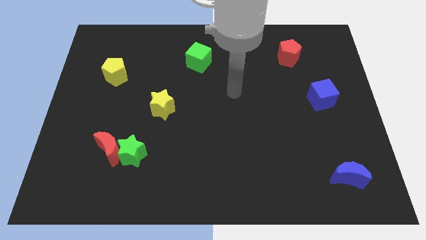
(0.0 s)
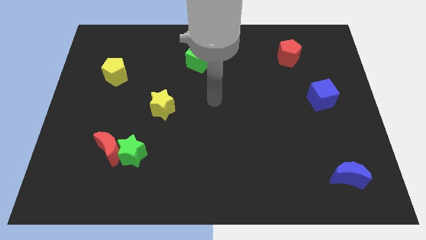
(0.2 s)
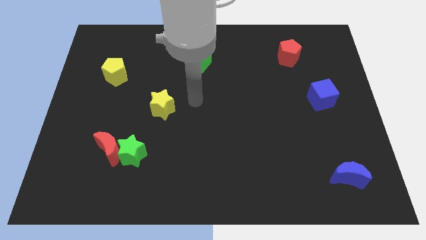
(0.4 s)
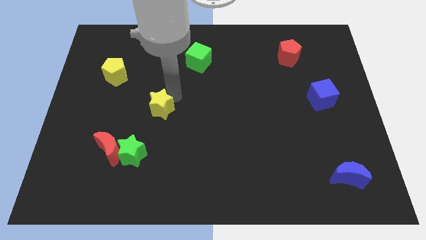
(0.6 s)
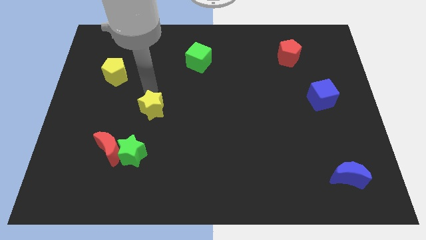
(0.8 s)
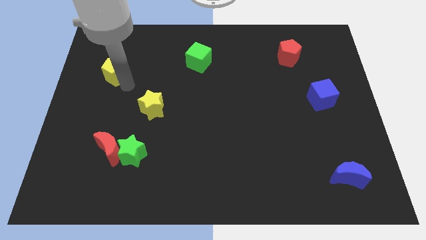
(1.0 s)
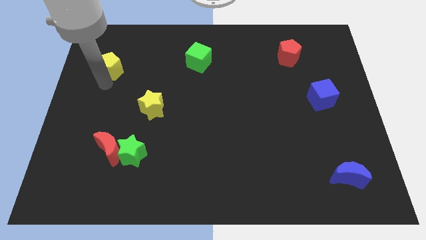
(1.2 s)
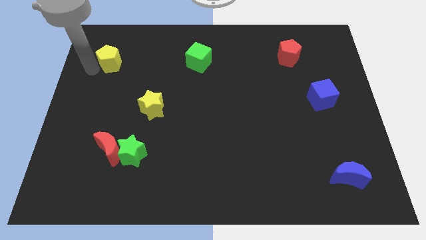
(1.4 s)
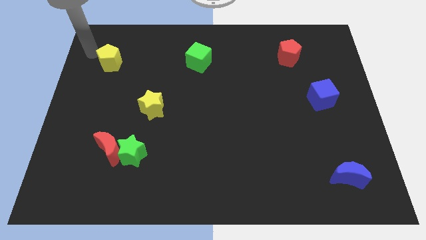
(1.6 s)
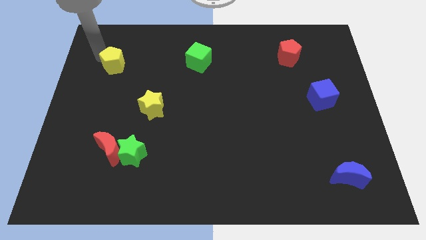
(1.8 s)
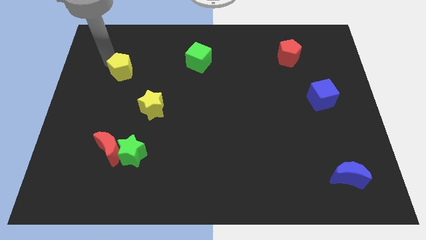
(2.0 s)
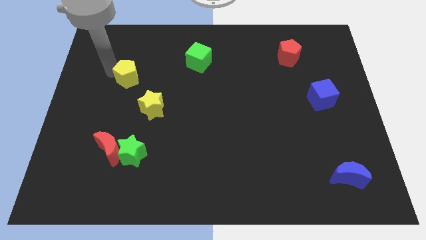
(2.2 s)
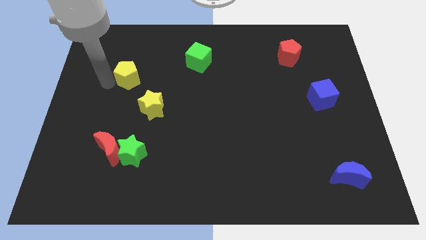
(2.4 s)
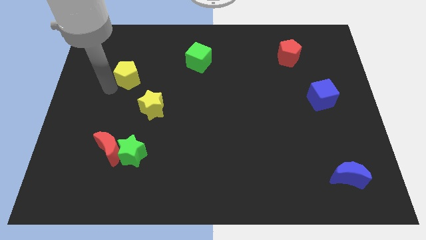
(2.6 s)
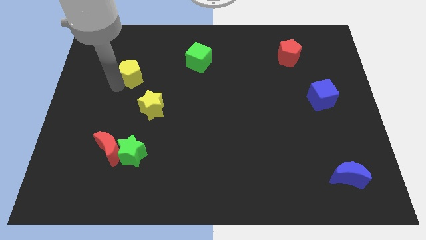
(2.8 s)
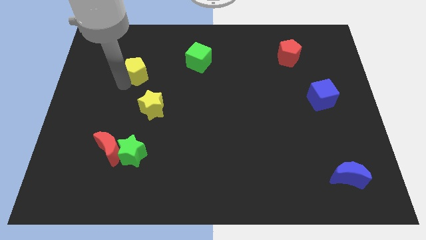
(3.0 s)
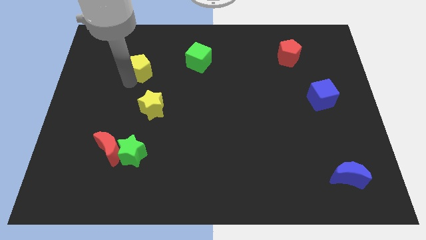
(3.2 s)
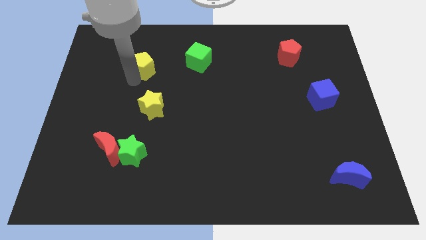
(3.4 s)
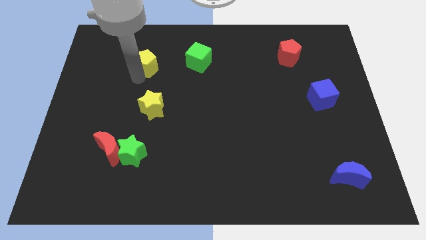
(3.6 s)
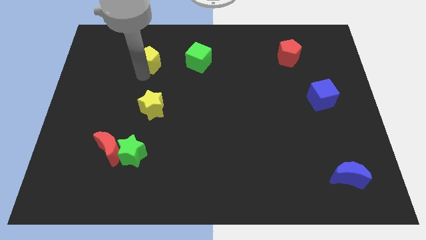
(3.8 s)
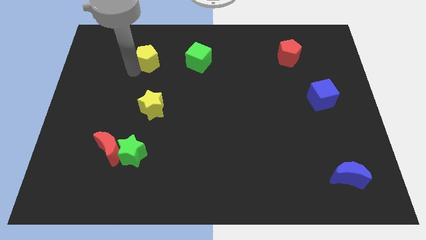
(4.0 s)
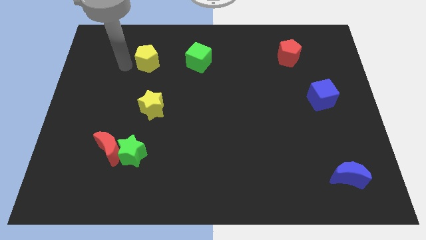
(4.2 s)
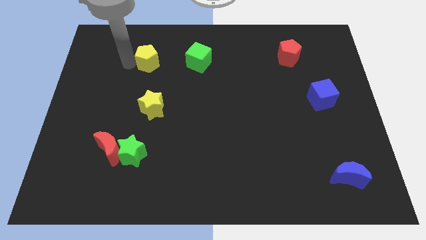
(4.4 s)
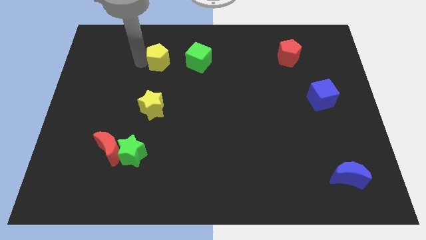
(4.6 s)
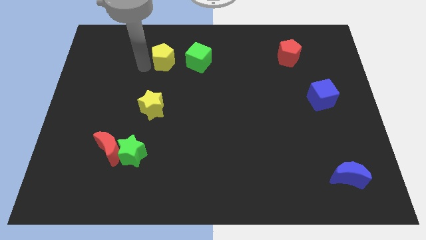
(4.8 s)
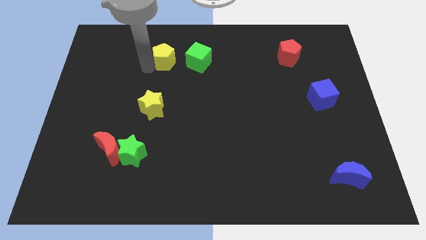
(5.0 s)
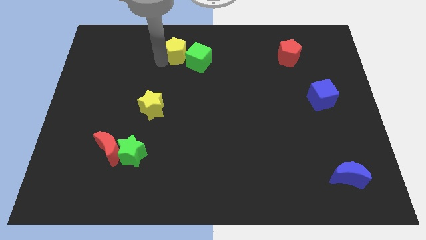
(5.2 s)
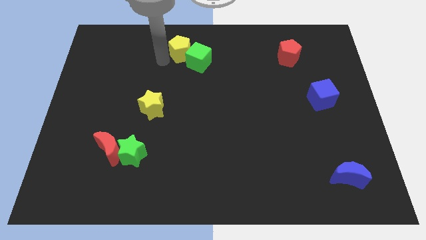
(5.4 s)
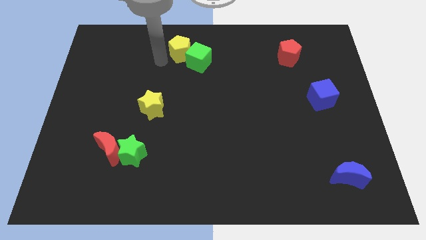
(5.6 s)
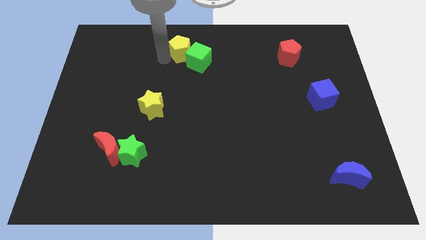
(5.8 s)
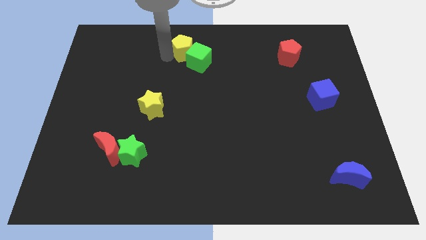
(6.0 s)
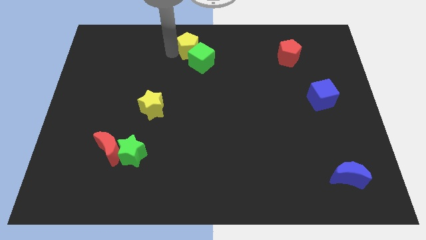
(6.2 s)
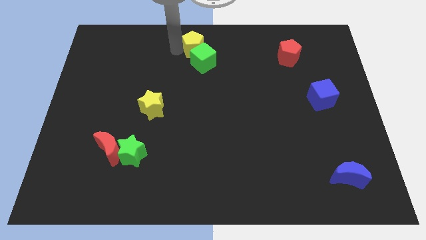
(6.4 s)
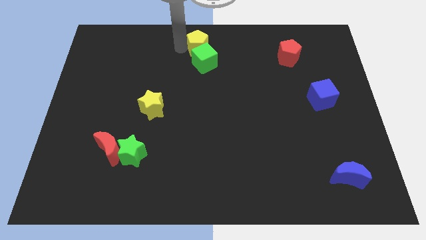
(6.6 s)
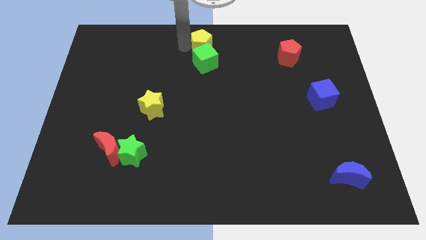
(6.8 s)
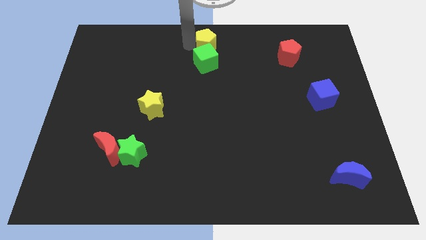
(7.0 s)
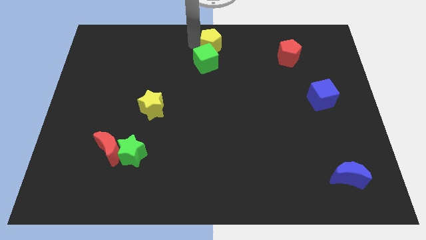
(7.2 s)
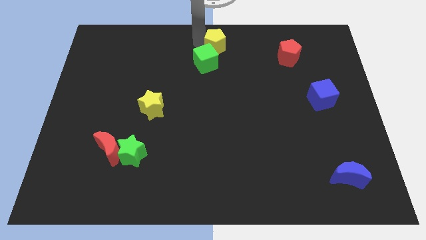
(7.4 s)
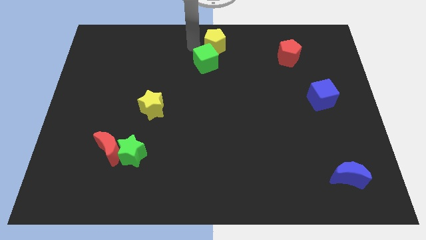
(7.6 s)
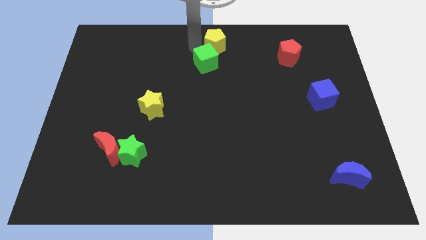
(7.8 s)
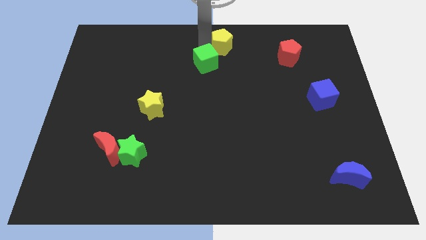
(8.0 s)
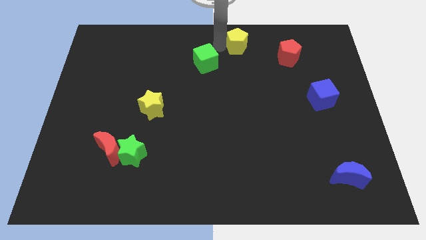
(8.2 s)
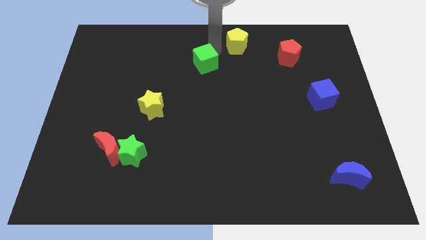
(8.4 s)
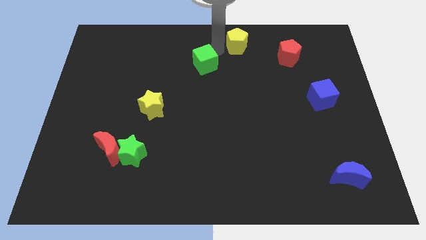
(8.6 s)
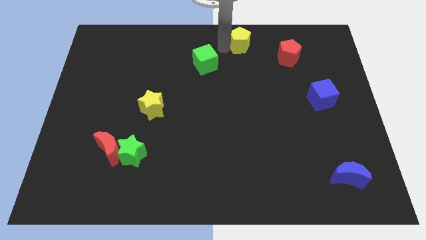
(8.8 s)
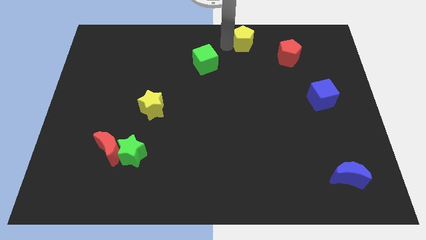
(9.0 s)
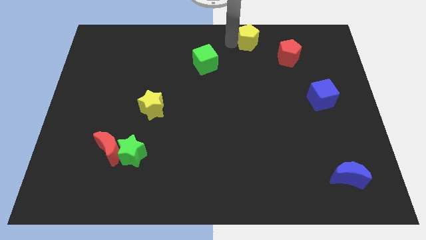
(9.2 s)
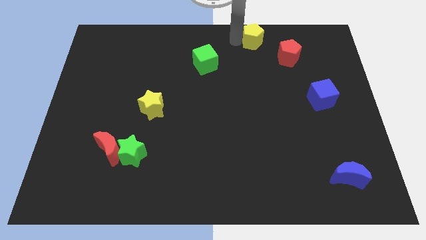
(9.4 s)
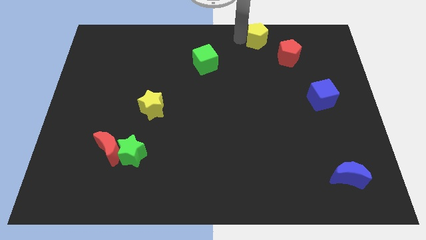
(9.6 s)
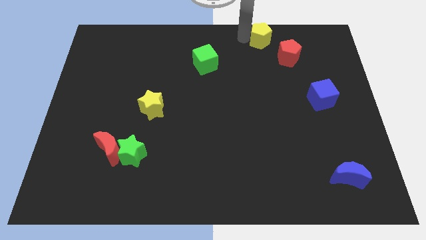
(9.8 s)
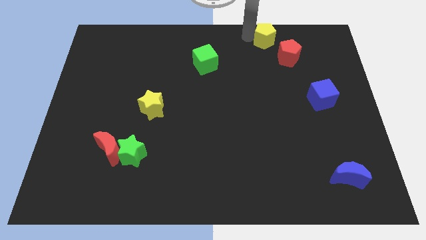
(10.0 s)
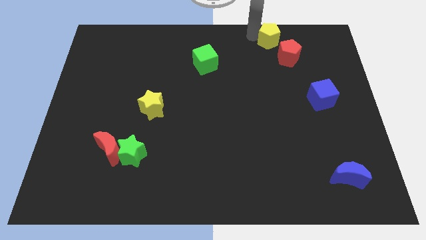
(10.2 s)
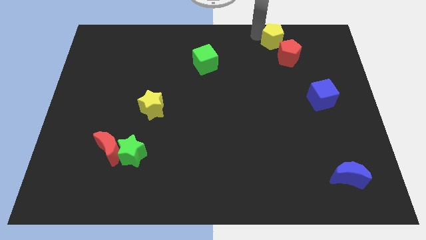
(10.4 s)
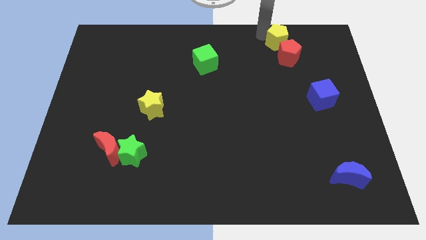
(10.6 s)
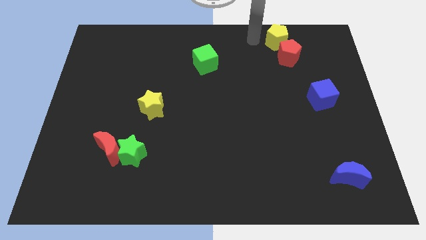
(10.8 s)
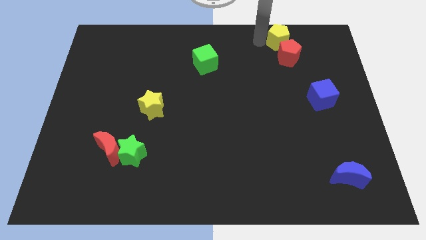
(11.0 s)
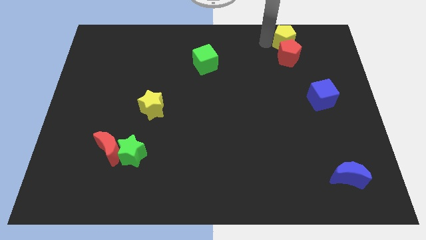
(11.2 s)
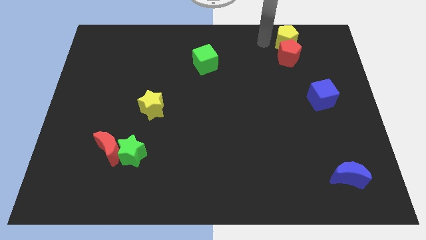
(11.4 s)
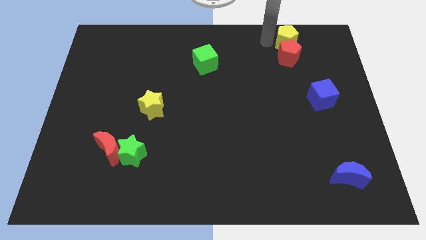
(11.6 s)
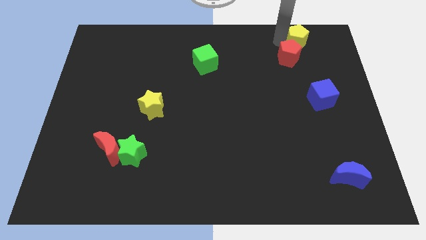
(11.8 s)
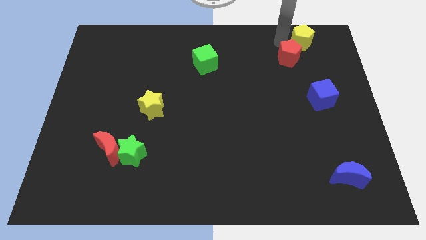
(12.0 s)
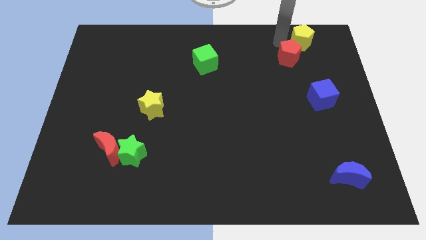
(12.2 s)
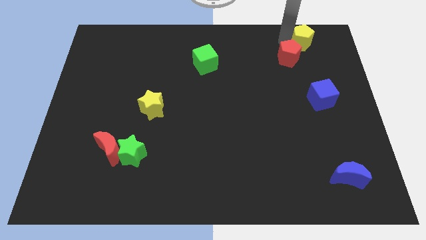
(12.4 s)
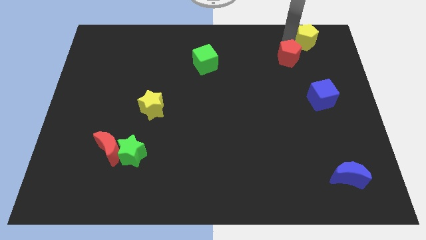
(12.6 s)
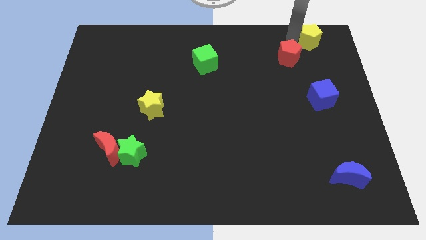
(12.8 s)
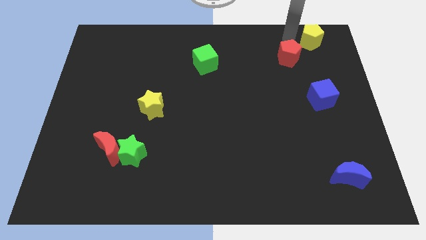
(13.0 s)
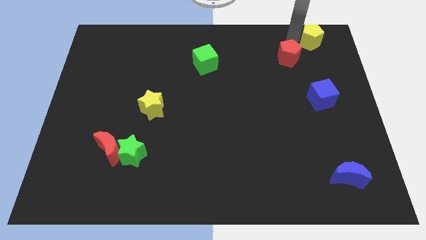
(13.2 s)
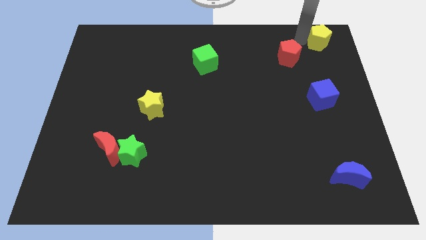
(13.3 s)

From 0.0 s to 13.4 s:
move the yellow pentagon to the top right of the board
